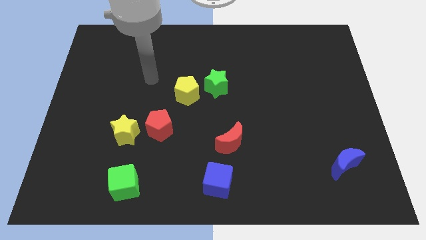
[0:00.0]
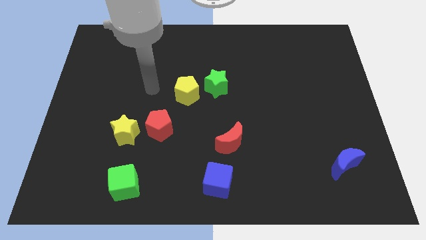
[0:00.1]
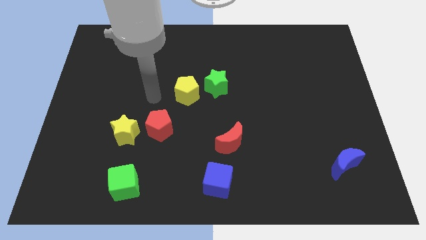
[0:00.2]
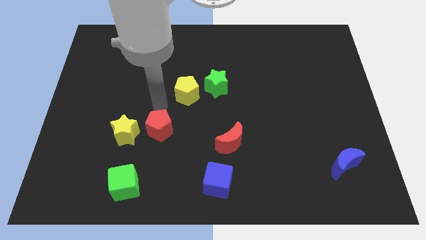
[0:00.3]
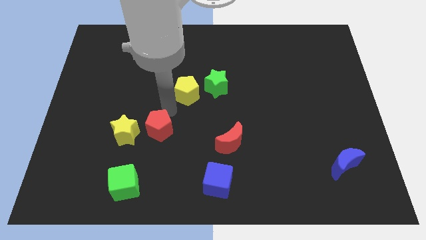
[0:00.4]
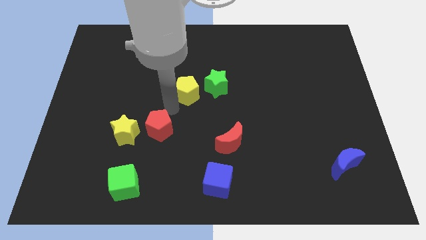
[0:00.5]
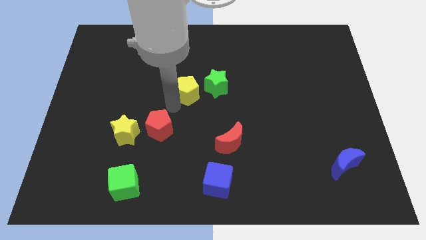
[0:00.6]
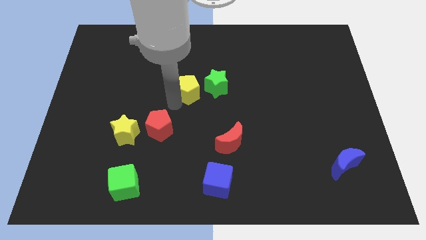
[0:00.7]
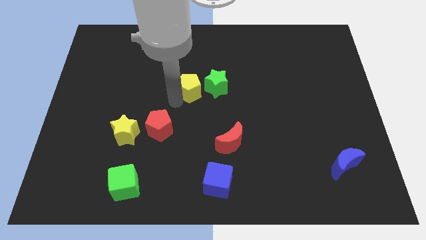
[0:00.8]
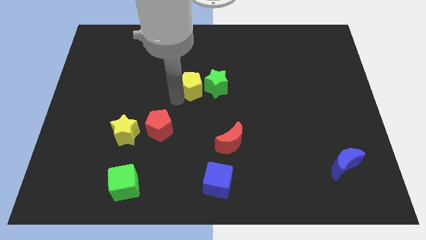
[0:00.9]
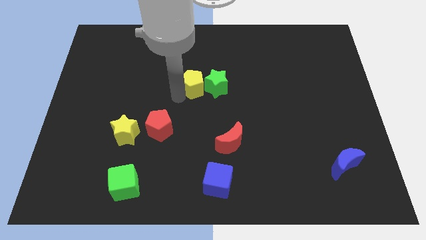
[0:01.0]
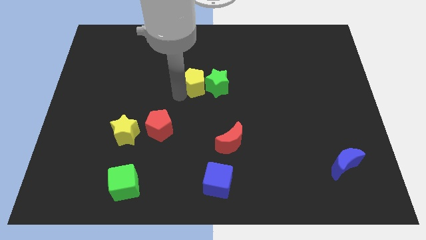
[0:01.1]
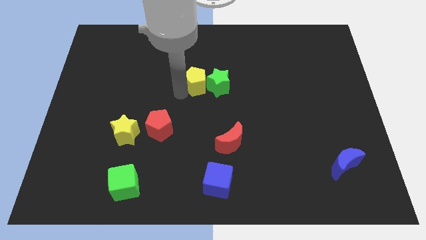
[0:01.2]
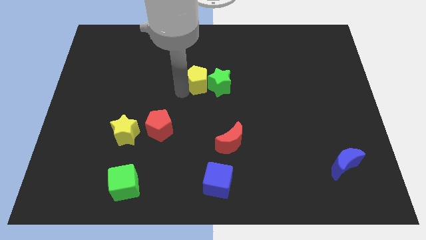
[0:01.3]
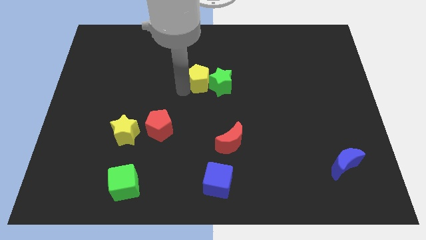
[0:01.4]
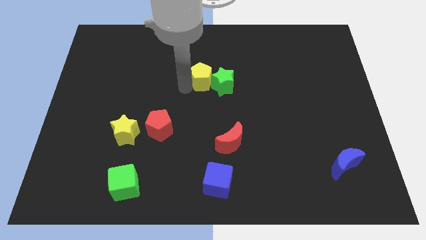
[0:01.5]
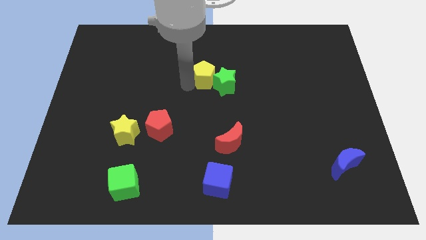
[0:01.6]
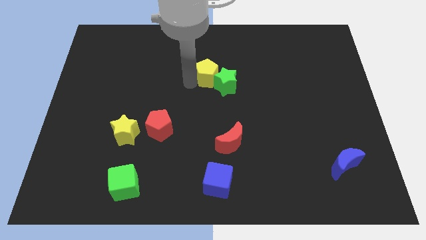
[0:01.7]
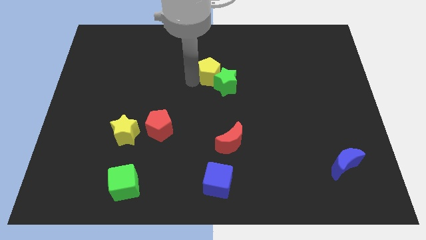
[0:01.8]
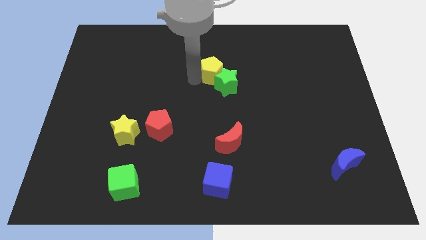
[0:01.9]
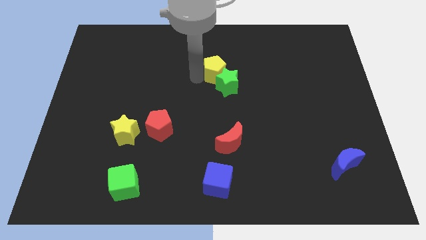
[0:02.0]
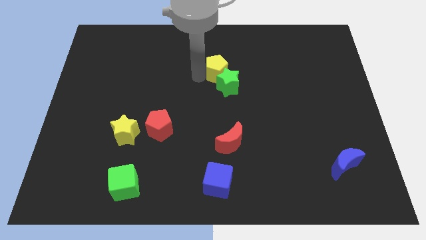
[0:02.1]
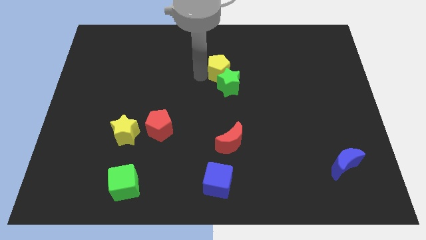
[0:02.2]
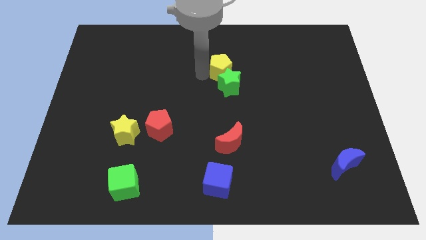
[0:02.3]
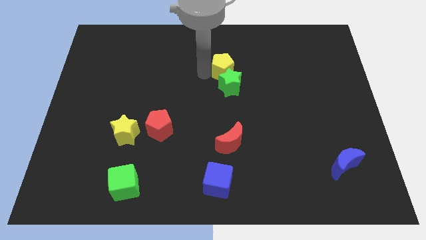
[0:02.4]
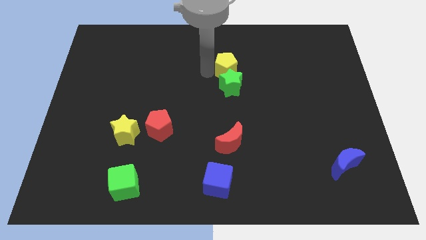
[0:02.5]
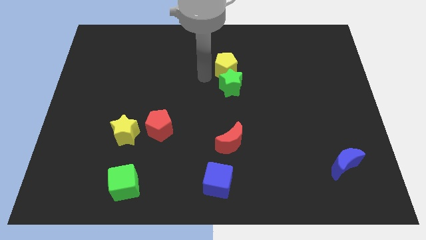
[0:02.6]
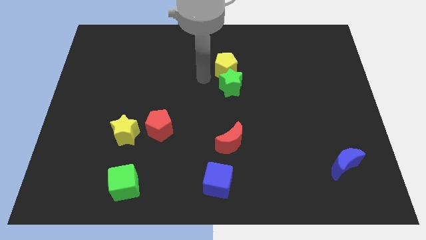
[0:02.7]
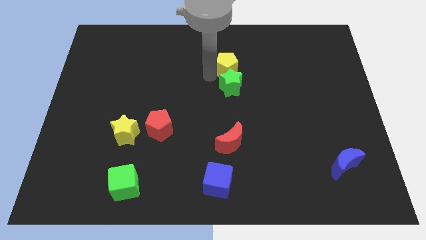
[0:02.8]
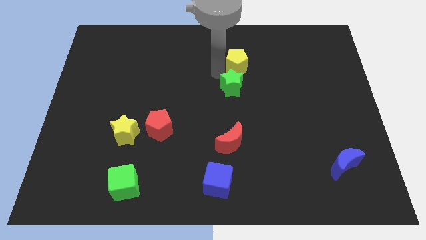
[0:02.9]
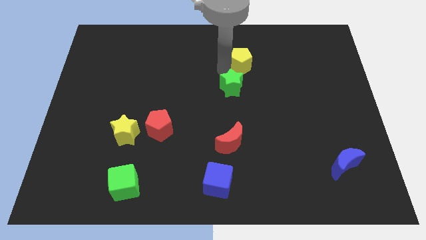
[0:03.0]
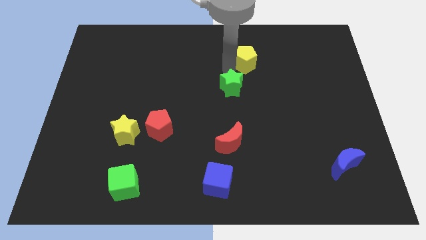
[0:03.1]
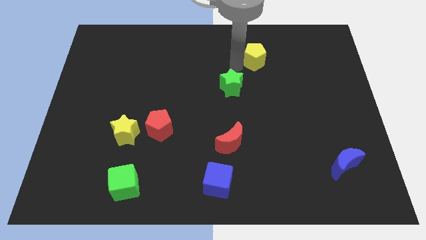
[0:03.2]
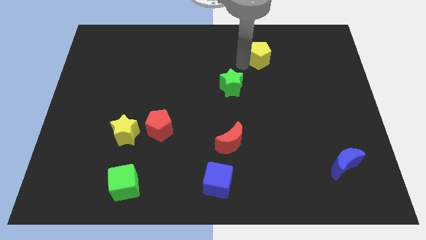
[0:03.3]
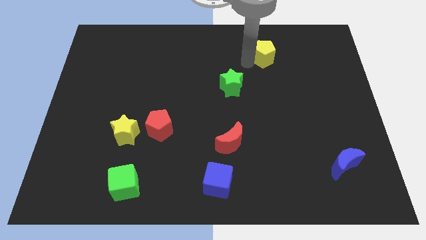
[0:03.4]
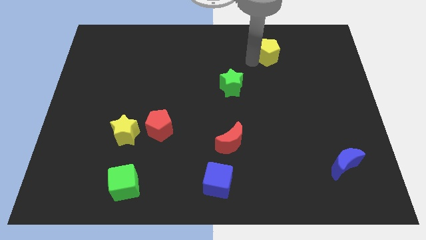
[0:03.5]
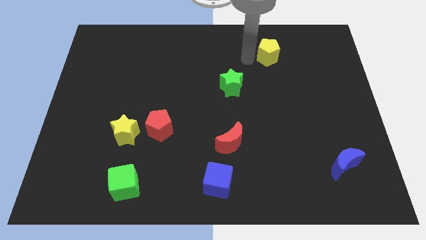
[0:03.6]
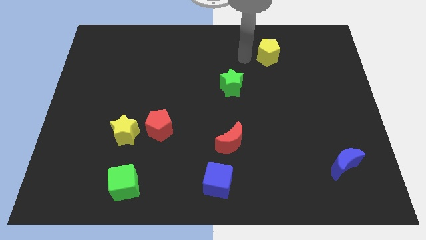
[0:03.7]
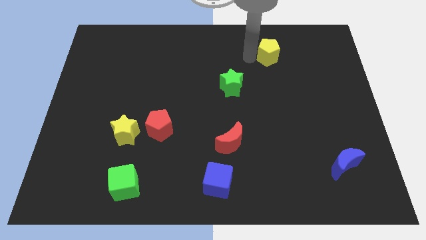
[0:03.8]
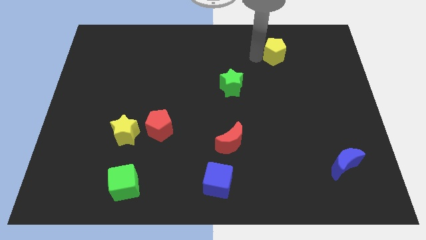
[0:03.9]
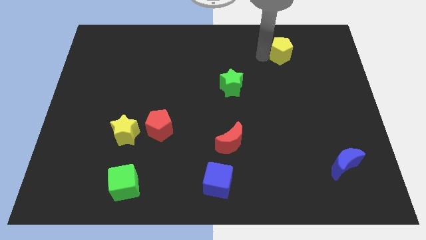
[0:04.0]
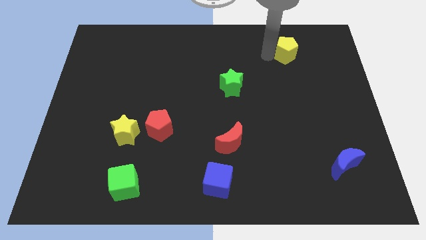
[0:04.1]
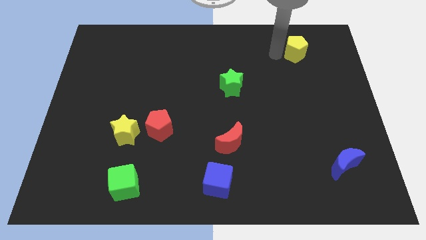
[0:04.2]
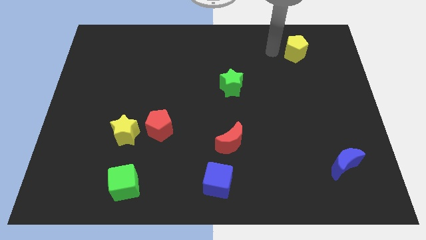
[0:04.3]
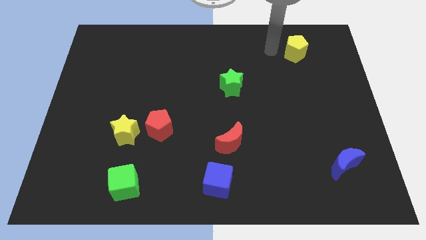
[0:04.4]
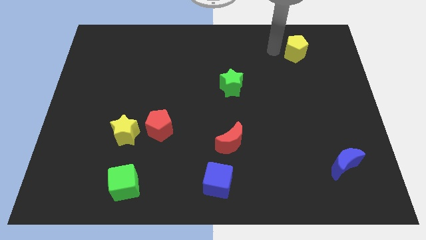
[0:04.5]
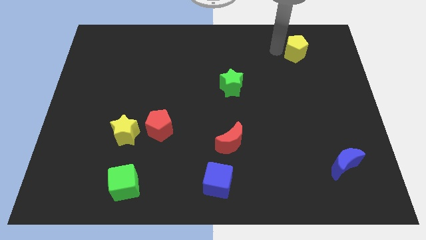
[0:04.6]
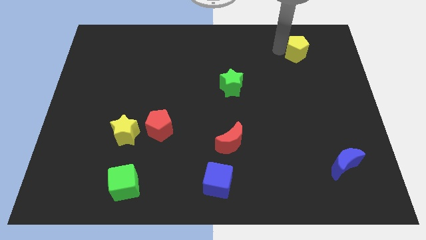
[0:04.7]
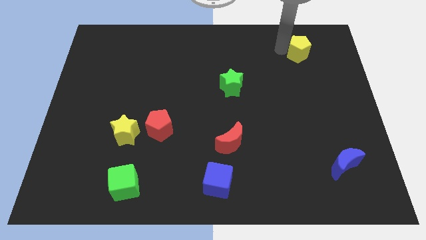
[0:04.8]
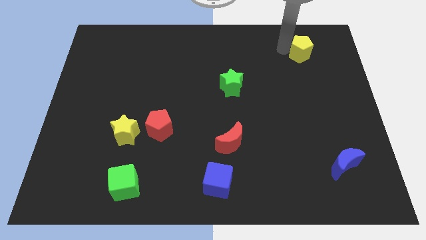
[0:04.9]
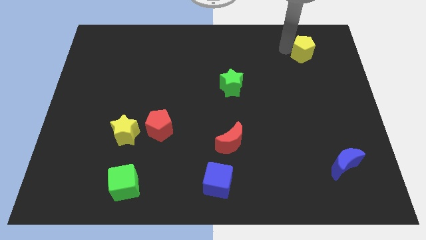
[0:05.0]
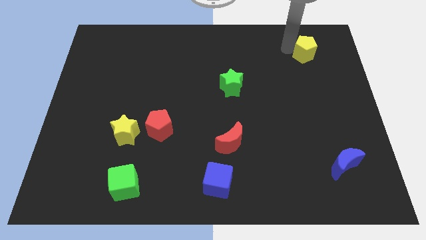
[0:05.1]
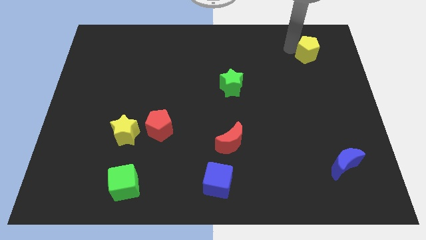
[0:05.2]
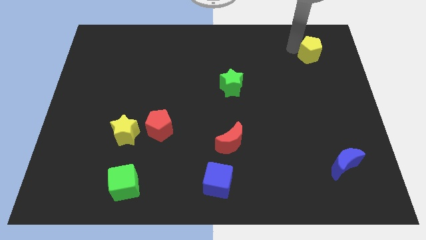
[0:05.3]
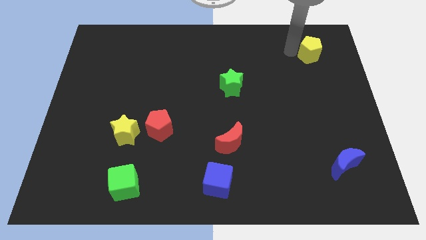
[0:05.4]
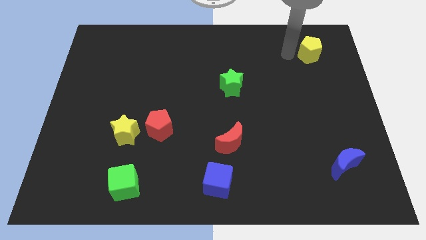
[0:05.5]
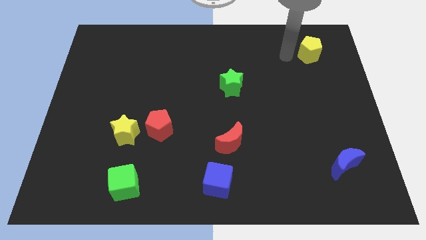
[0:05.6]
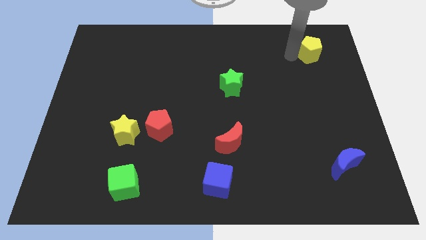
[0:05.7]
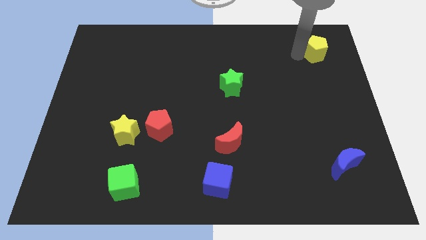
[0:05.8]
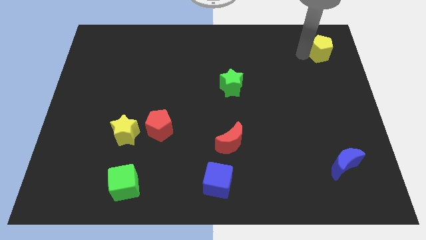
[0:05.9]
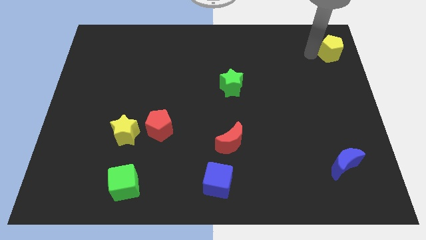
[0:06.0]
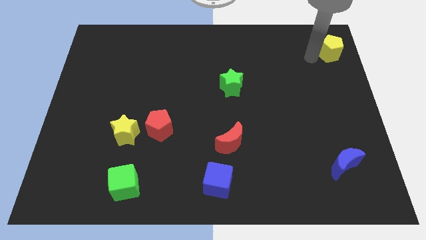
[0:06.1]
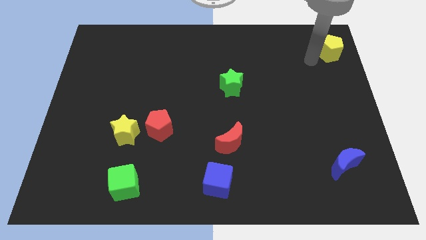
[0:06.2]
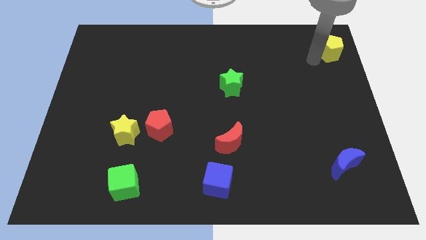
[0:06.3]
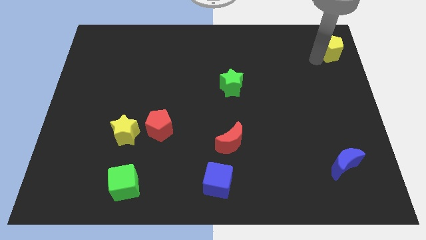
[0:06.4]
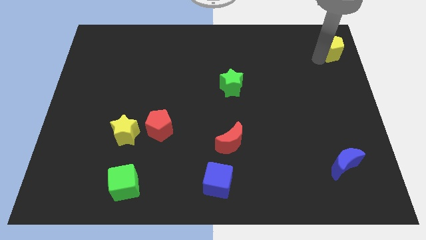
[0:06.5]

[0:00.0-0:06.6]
put the yellow pentagon to the top right
